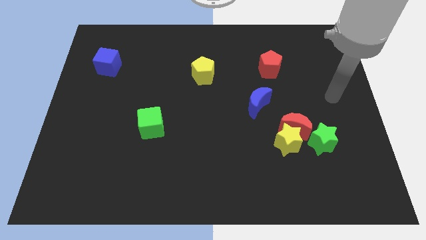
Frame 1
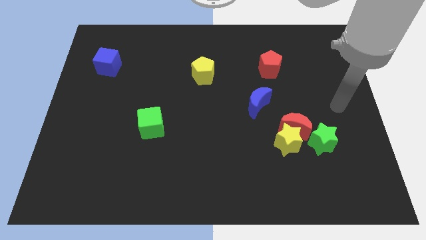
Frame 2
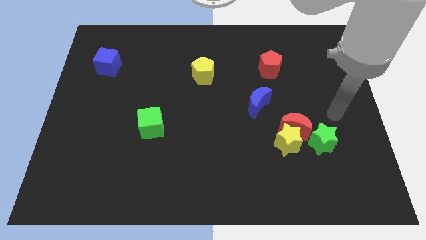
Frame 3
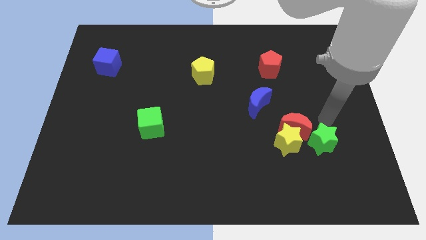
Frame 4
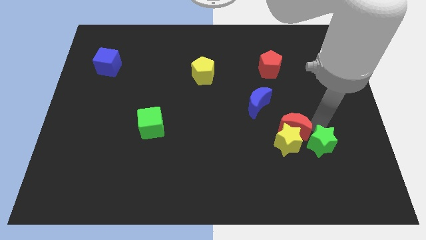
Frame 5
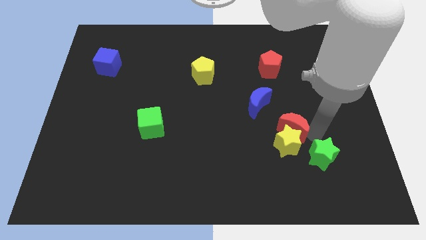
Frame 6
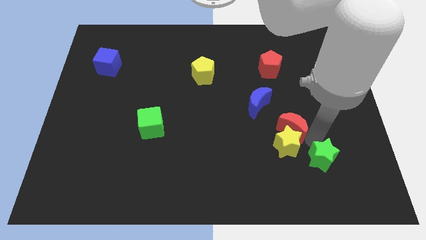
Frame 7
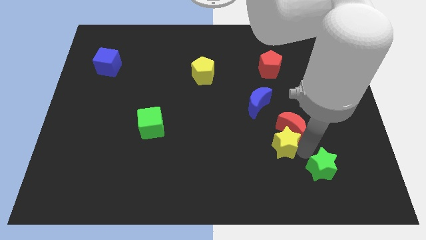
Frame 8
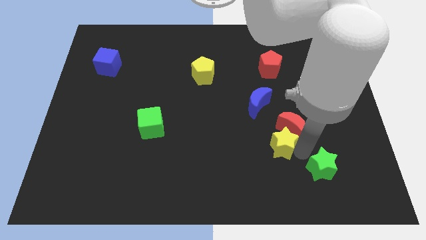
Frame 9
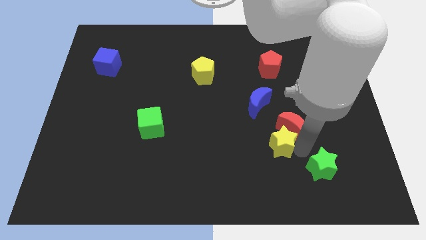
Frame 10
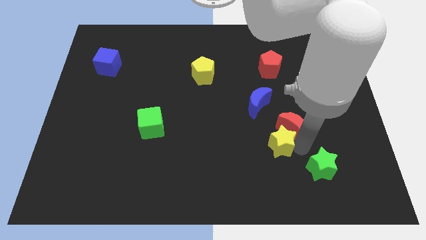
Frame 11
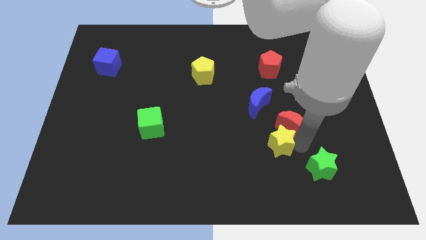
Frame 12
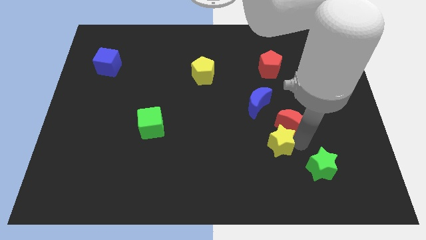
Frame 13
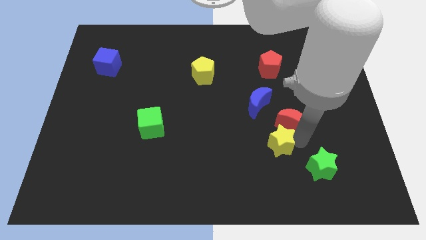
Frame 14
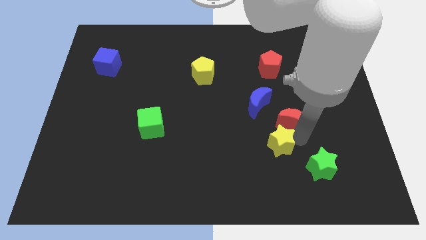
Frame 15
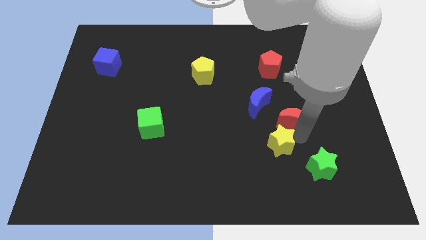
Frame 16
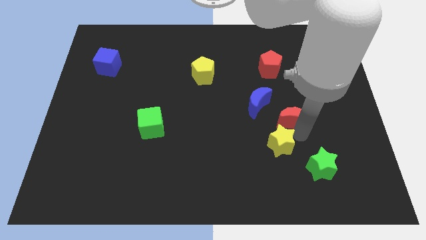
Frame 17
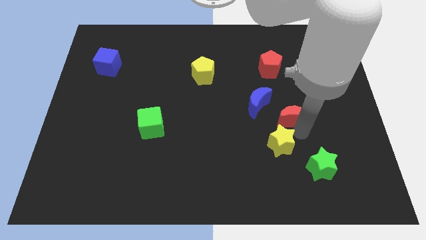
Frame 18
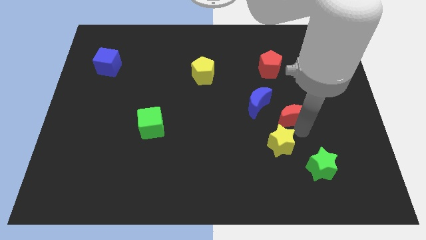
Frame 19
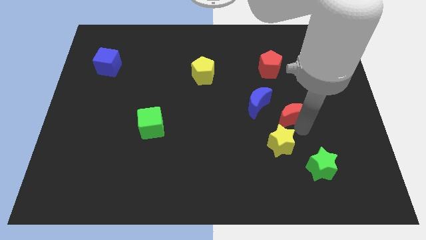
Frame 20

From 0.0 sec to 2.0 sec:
pull the red moon apart from the yellow star and green star

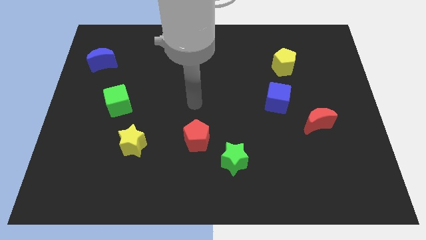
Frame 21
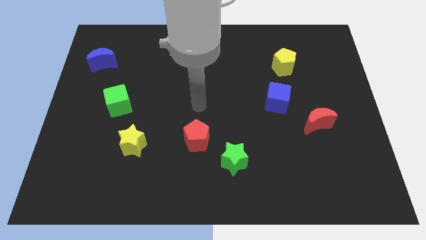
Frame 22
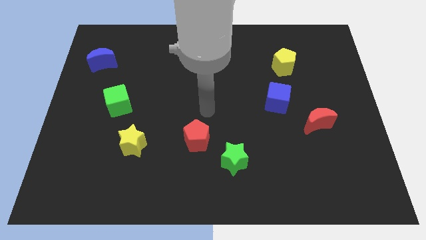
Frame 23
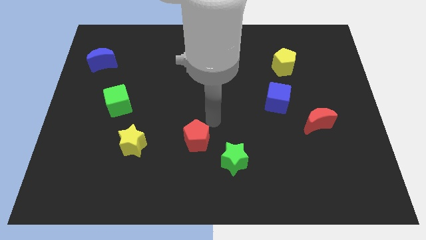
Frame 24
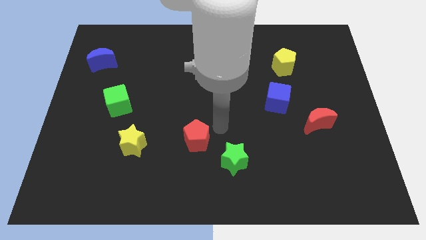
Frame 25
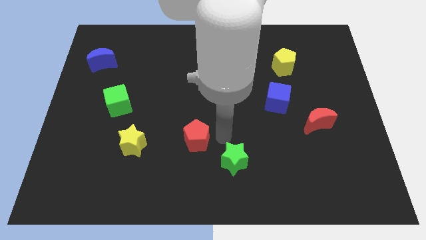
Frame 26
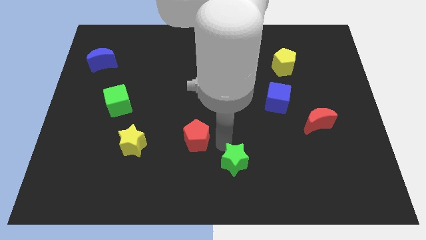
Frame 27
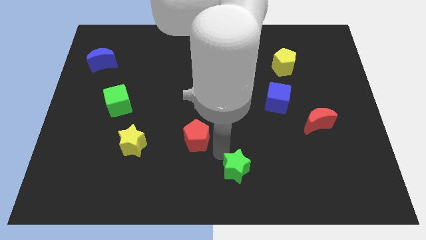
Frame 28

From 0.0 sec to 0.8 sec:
move the red pentagon away from the green star

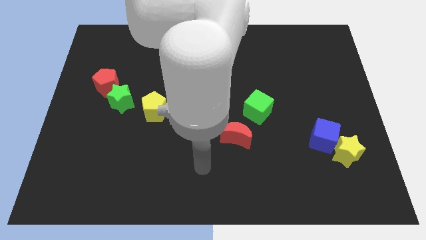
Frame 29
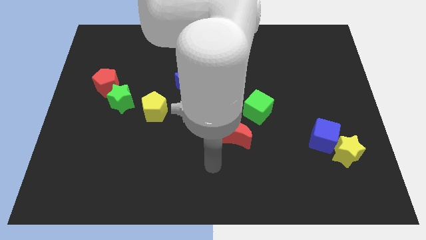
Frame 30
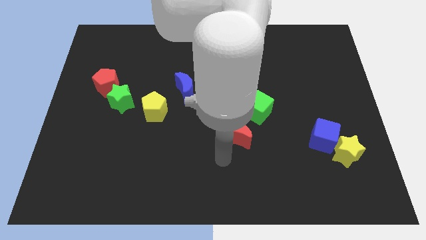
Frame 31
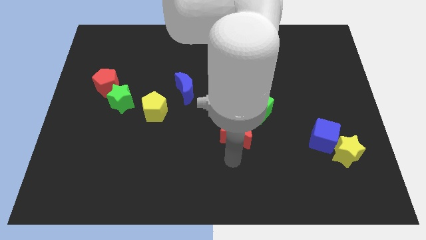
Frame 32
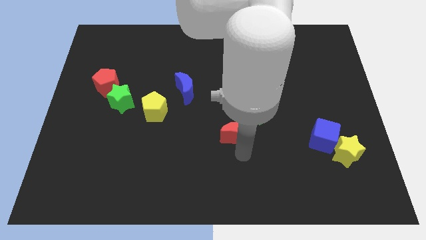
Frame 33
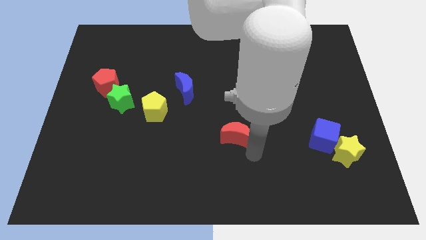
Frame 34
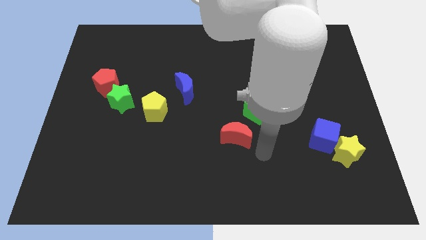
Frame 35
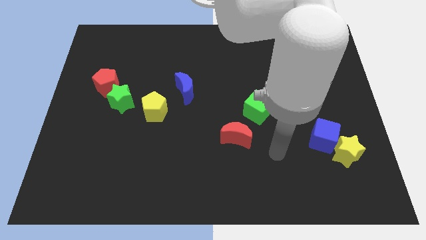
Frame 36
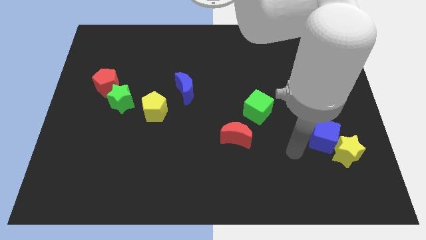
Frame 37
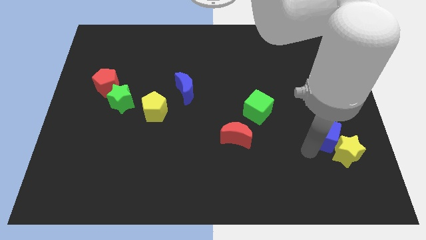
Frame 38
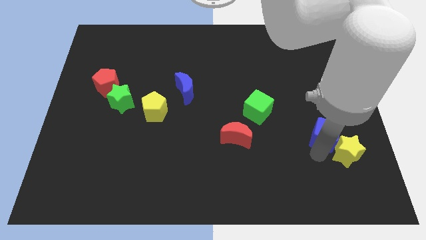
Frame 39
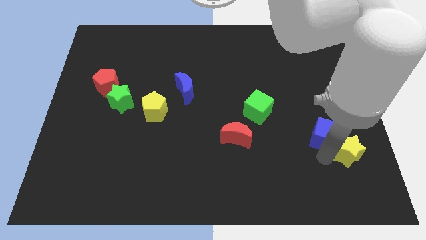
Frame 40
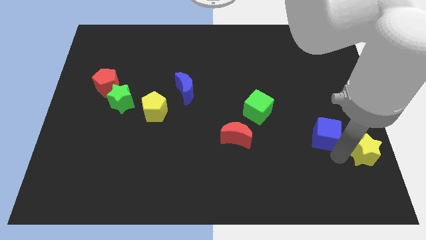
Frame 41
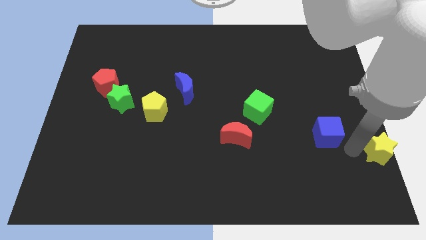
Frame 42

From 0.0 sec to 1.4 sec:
move the blue cube away from the yellow star

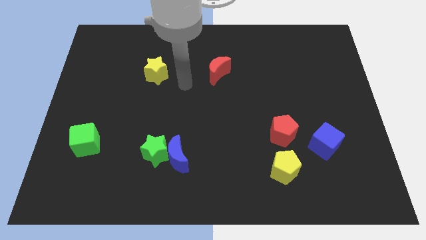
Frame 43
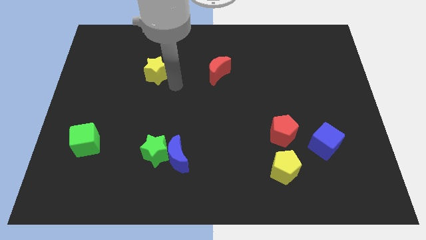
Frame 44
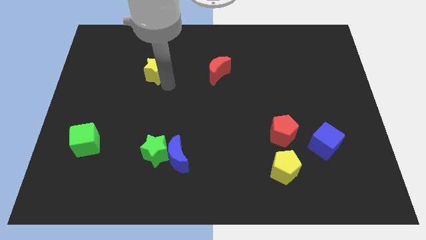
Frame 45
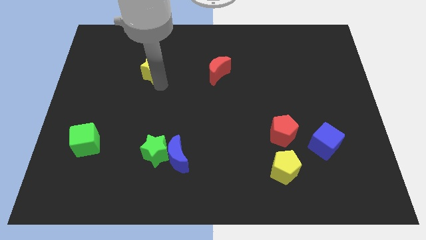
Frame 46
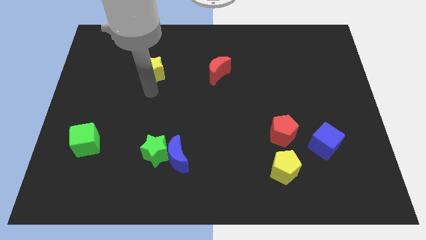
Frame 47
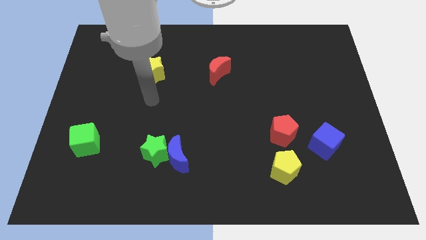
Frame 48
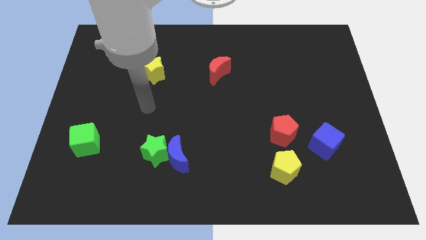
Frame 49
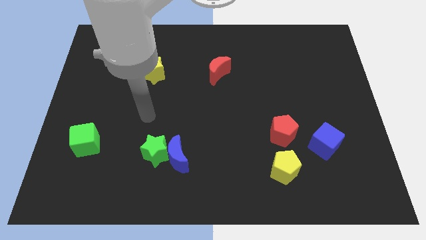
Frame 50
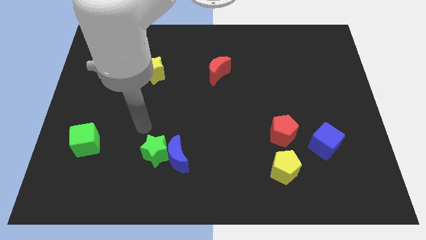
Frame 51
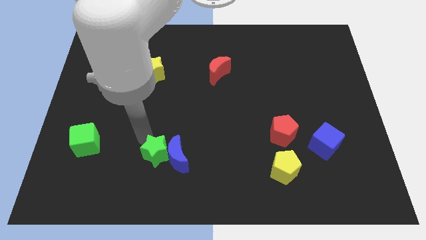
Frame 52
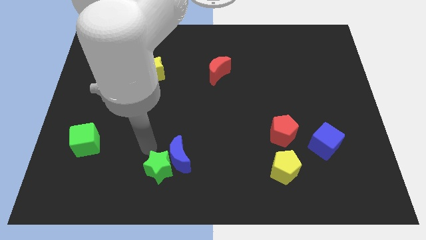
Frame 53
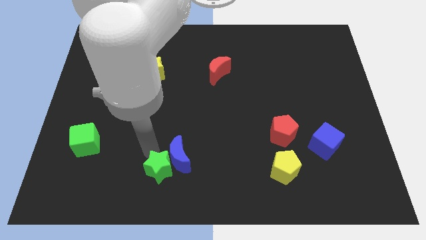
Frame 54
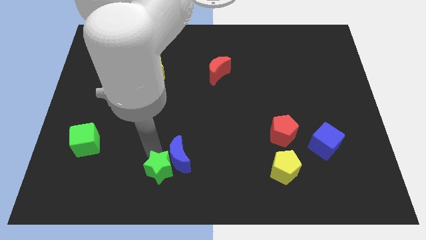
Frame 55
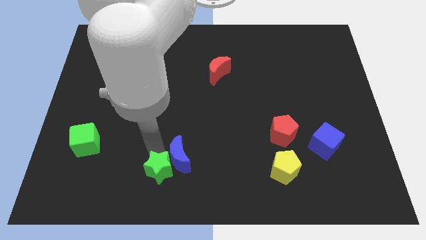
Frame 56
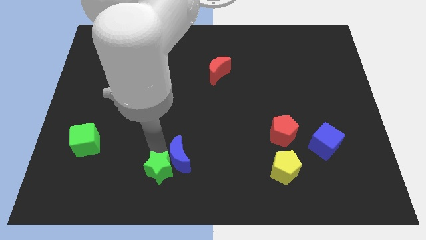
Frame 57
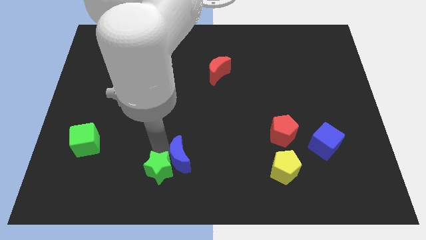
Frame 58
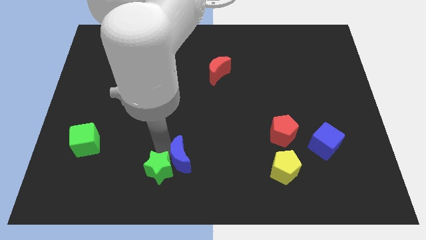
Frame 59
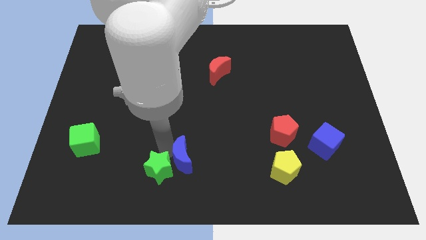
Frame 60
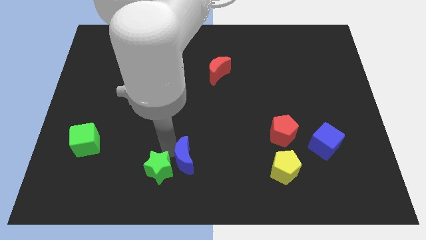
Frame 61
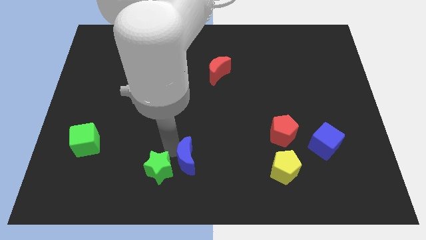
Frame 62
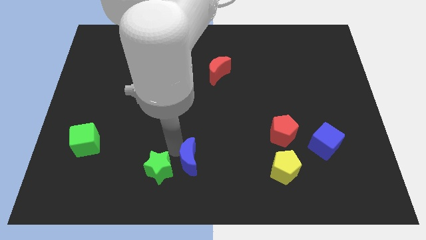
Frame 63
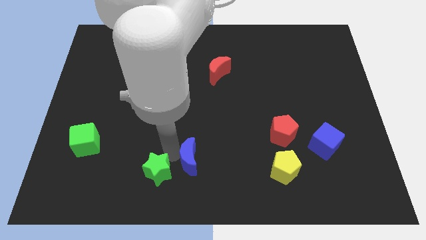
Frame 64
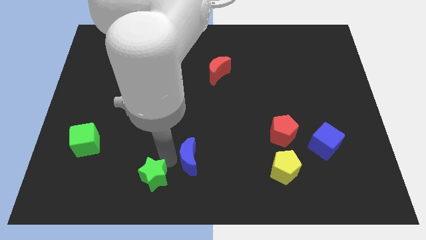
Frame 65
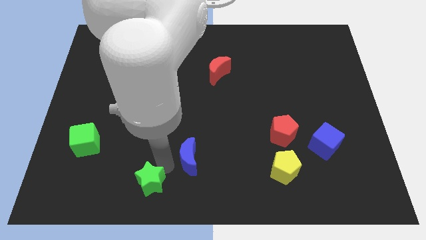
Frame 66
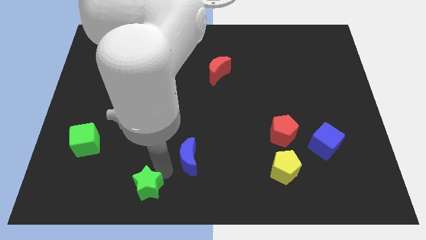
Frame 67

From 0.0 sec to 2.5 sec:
move the blue moon away from the green star

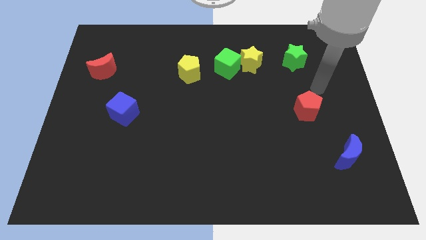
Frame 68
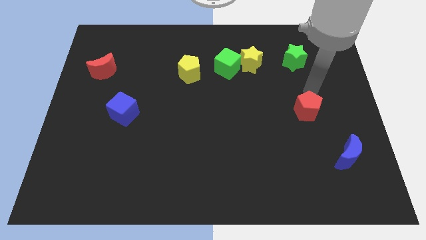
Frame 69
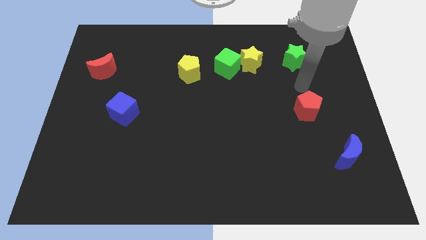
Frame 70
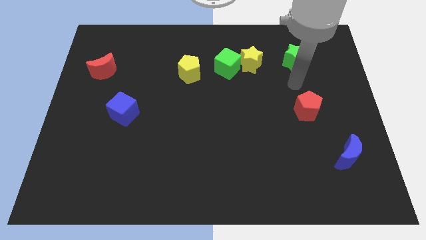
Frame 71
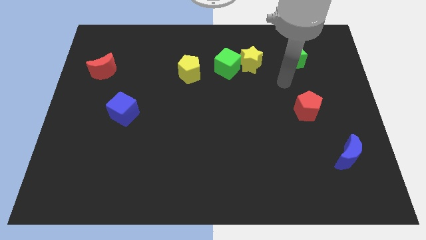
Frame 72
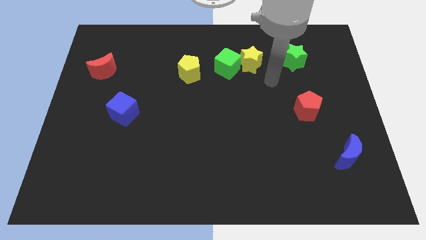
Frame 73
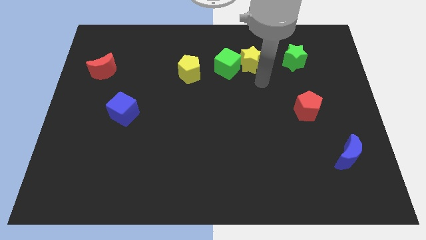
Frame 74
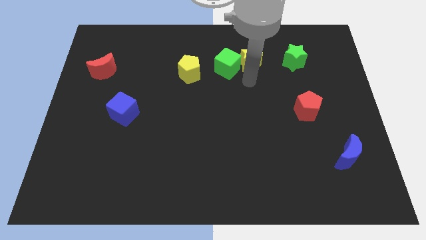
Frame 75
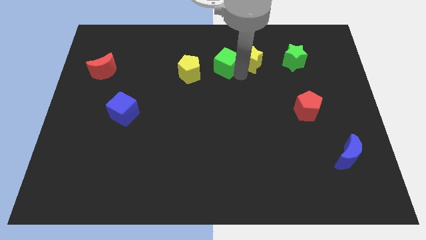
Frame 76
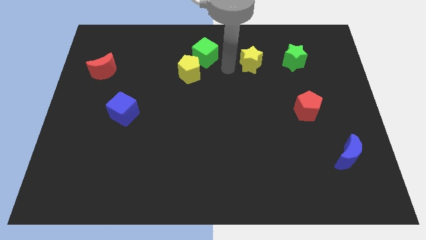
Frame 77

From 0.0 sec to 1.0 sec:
separate the yellow star from the green cube

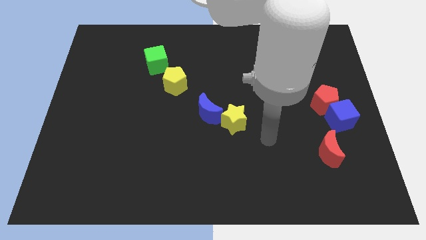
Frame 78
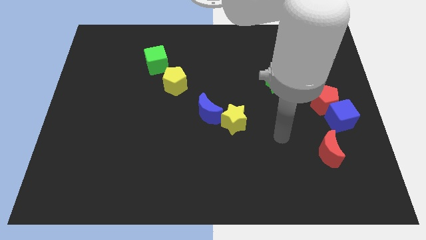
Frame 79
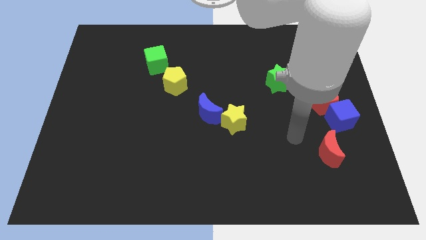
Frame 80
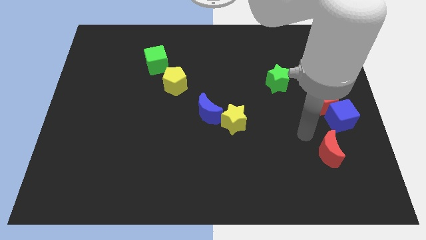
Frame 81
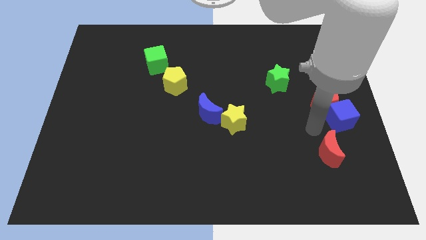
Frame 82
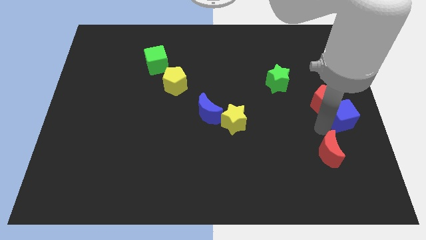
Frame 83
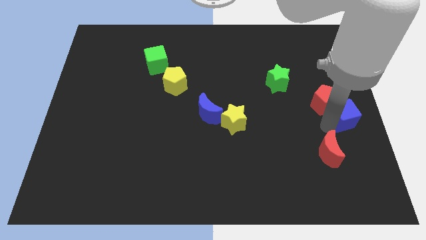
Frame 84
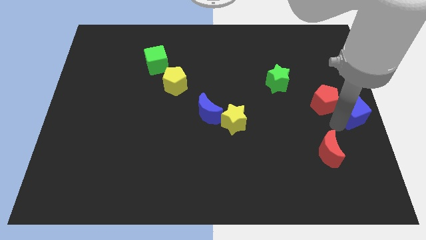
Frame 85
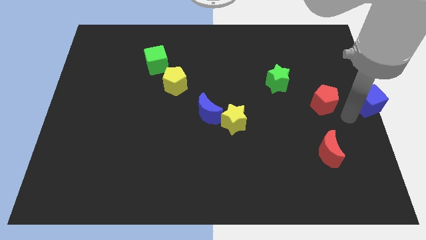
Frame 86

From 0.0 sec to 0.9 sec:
pull the red pentagon apart from the blue cube

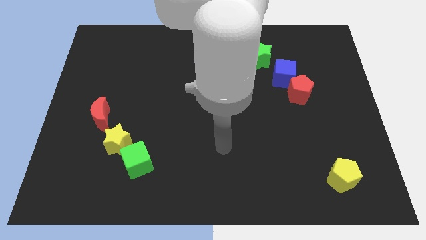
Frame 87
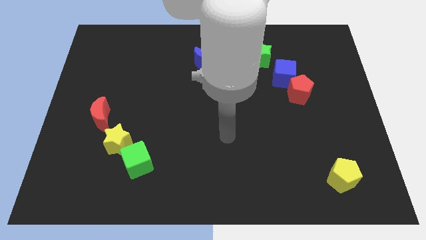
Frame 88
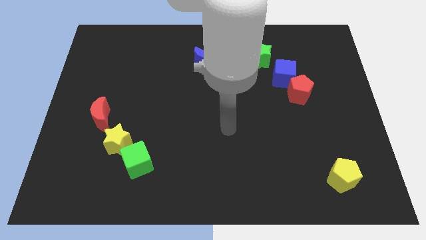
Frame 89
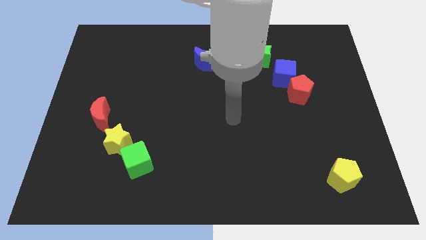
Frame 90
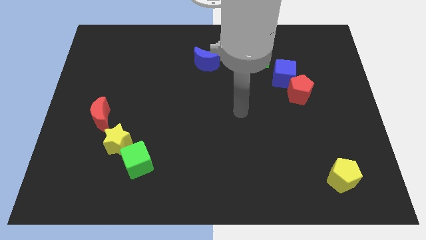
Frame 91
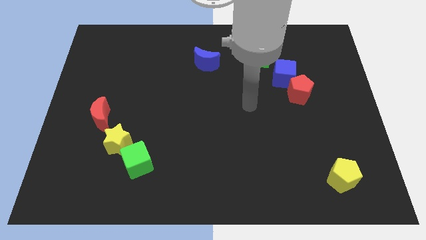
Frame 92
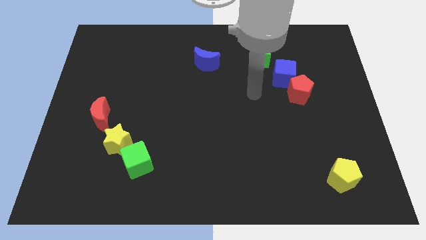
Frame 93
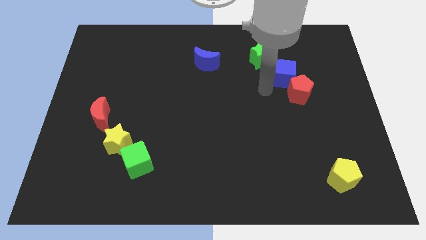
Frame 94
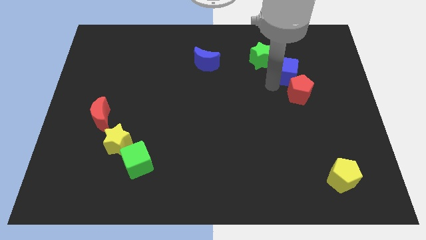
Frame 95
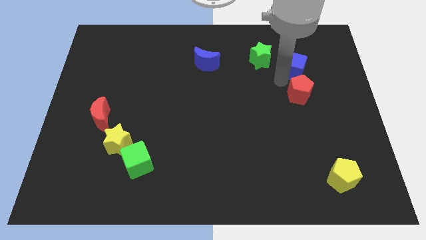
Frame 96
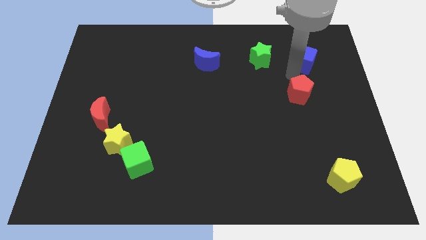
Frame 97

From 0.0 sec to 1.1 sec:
separate the red pentagon from the blue cube
